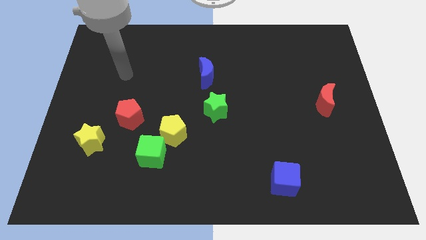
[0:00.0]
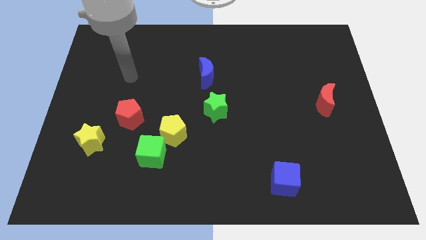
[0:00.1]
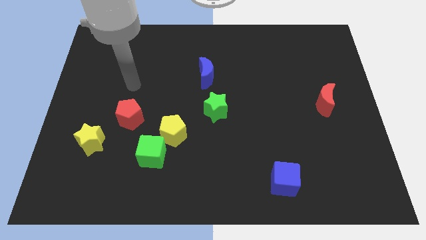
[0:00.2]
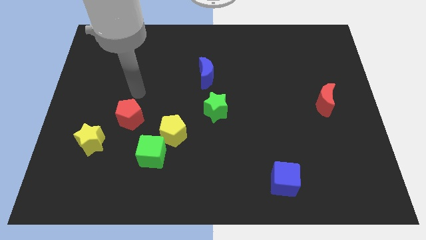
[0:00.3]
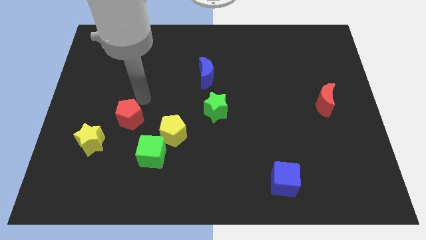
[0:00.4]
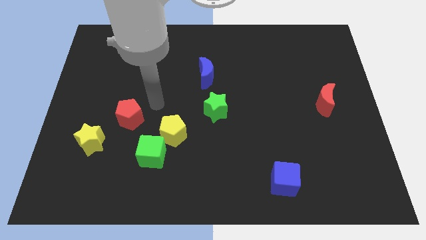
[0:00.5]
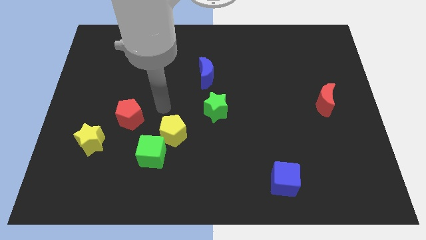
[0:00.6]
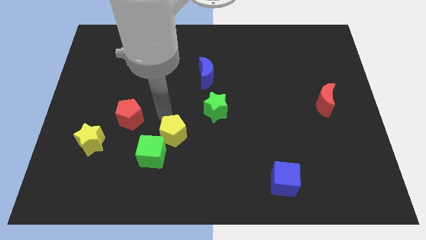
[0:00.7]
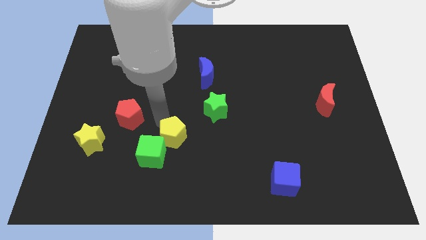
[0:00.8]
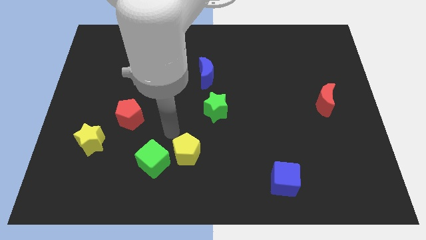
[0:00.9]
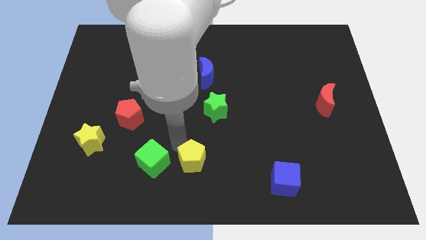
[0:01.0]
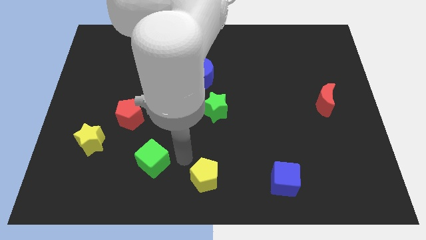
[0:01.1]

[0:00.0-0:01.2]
pull the green cube apart from the yellow pentagon

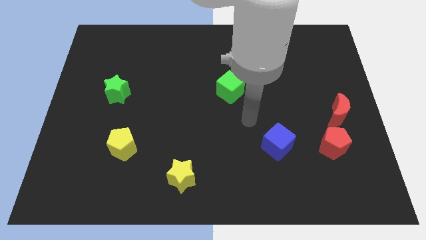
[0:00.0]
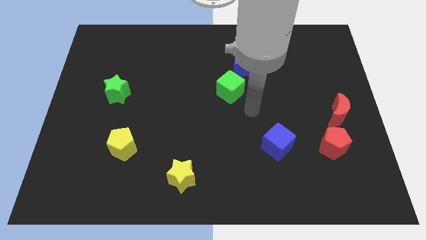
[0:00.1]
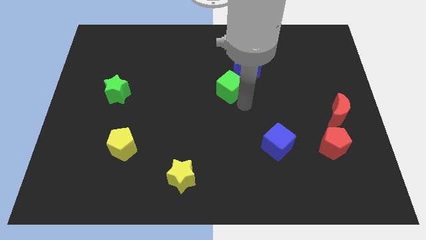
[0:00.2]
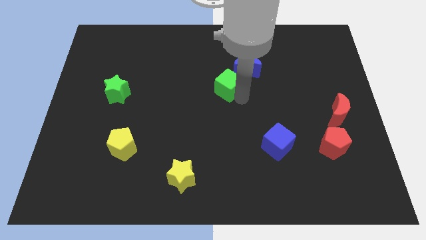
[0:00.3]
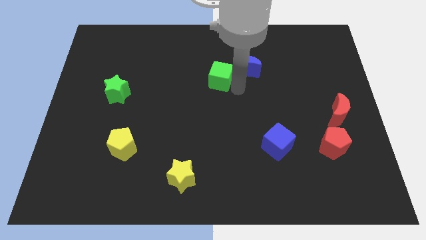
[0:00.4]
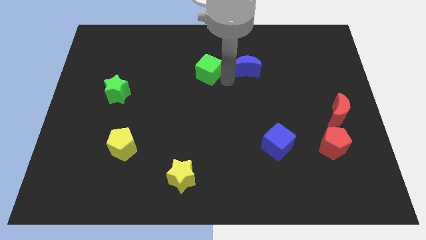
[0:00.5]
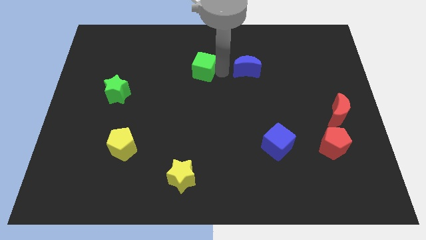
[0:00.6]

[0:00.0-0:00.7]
move the blue moon away from the green cube

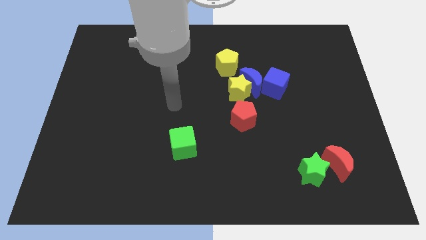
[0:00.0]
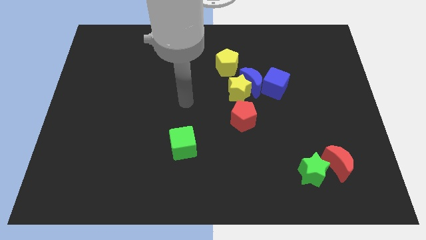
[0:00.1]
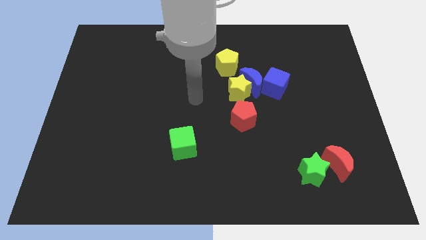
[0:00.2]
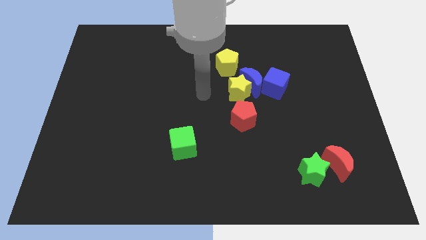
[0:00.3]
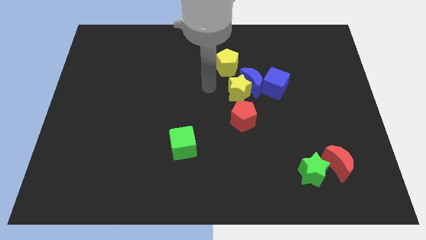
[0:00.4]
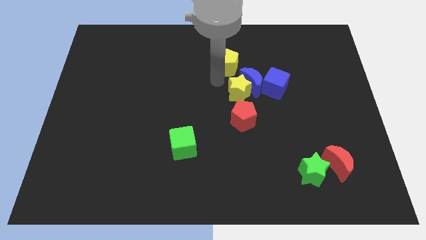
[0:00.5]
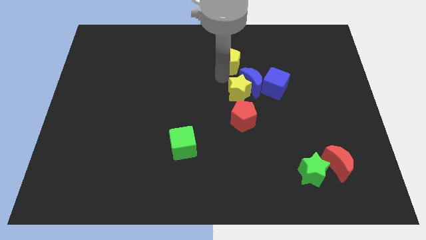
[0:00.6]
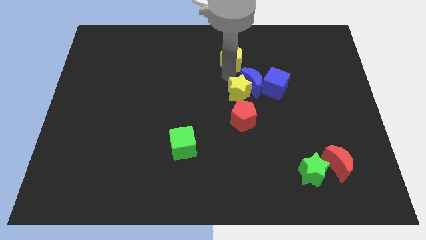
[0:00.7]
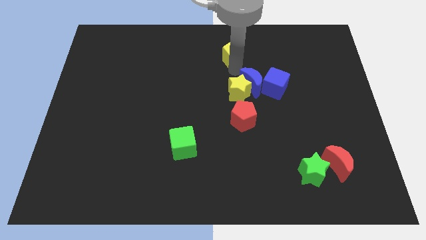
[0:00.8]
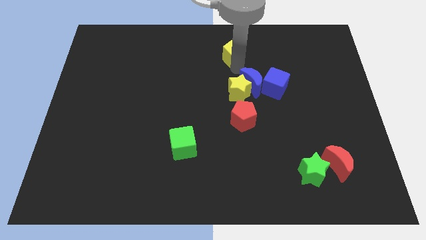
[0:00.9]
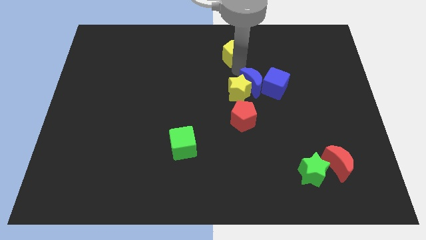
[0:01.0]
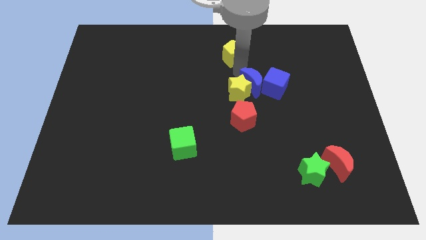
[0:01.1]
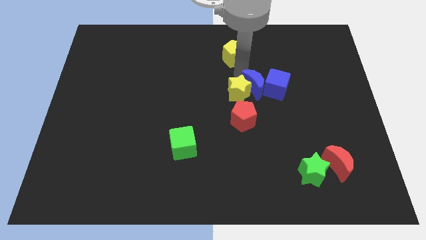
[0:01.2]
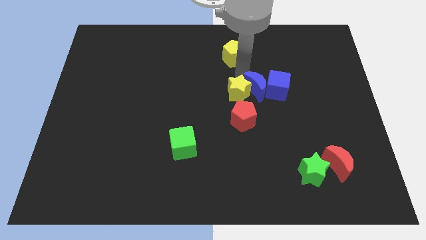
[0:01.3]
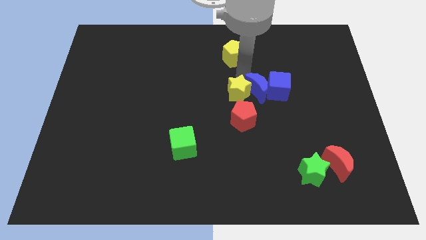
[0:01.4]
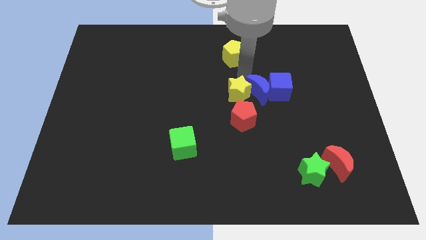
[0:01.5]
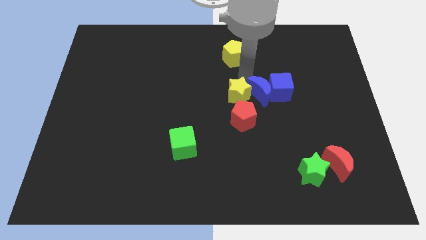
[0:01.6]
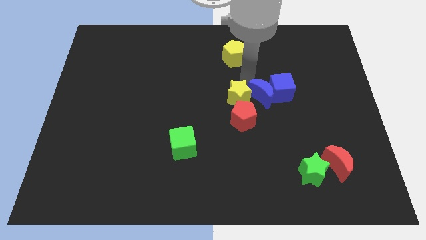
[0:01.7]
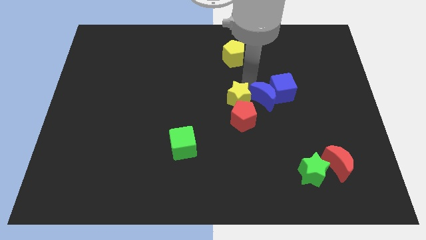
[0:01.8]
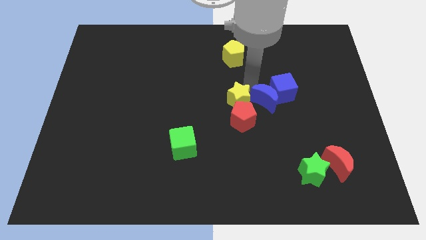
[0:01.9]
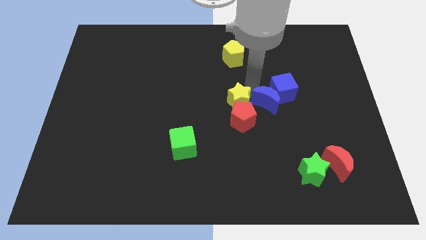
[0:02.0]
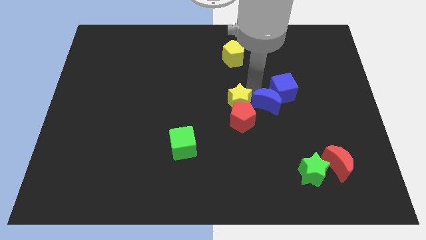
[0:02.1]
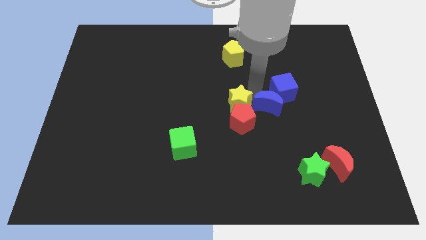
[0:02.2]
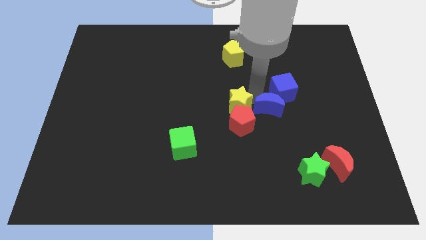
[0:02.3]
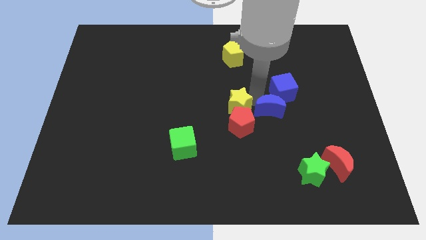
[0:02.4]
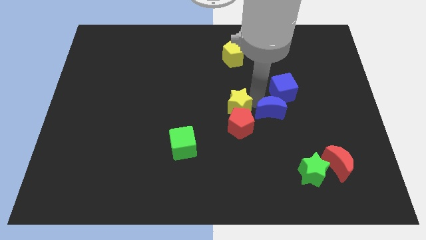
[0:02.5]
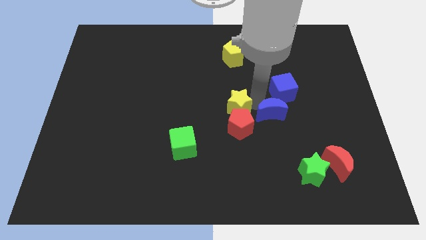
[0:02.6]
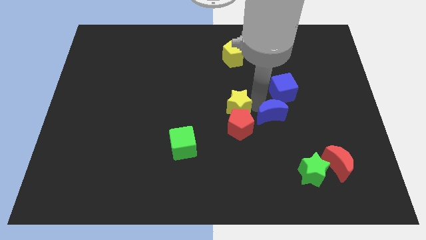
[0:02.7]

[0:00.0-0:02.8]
move the blue moon away from the group of blocks

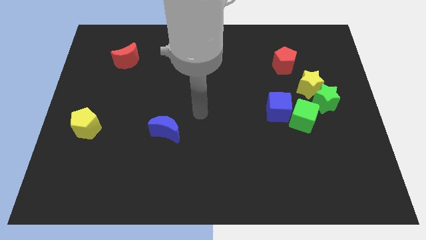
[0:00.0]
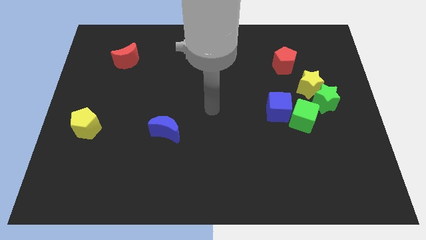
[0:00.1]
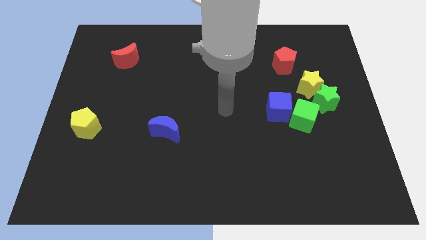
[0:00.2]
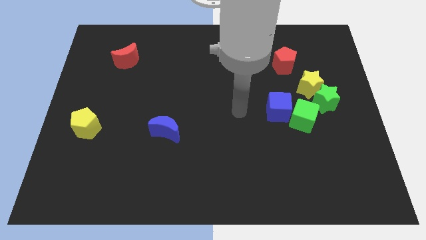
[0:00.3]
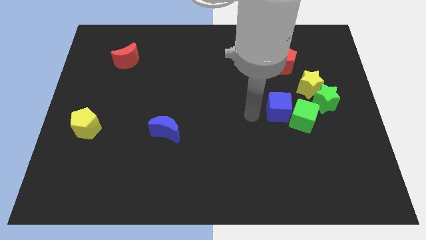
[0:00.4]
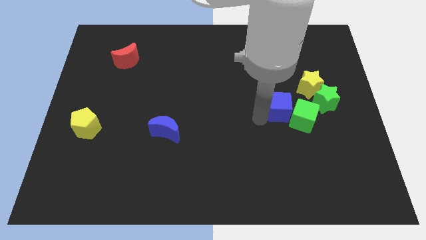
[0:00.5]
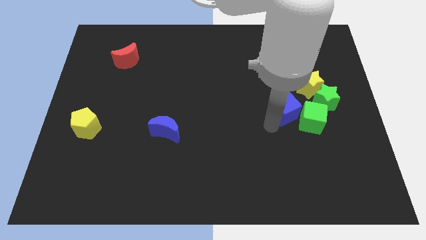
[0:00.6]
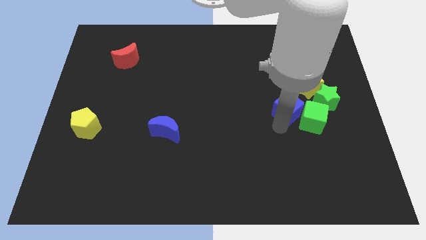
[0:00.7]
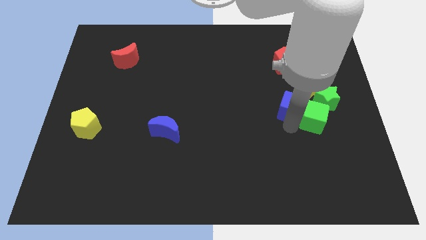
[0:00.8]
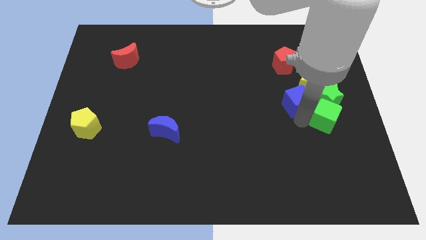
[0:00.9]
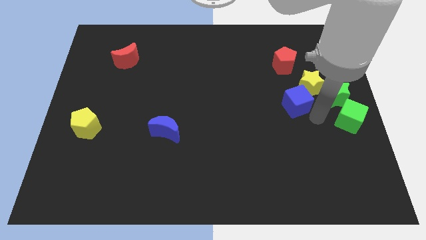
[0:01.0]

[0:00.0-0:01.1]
pull the blue cube apart from the green cube

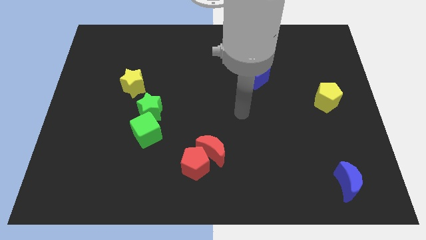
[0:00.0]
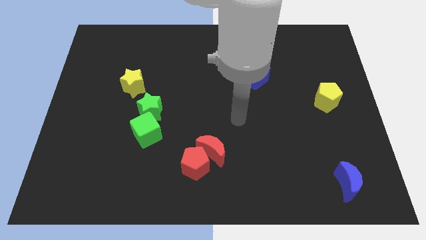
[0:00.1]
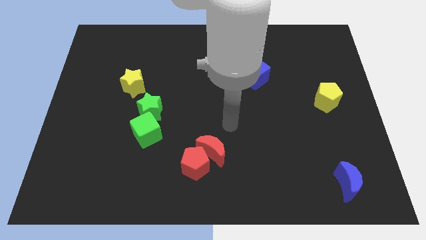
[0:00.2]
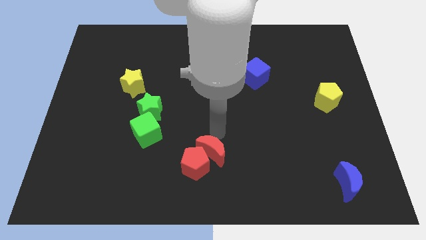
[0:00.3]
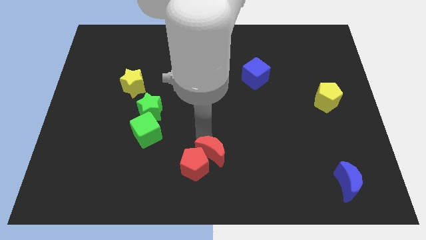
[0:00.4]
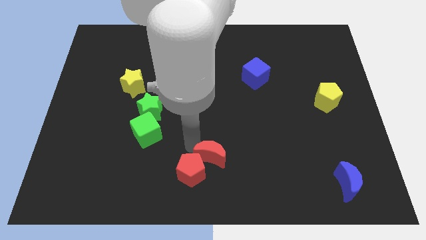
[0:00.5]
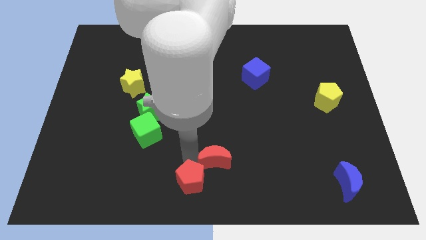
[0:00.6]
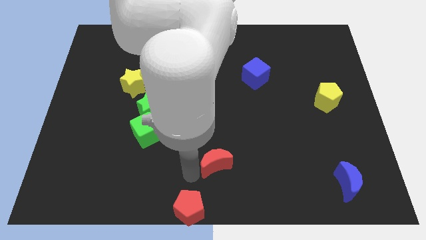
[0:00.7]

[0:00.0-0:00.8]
move the red moon away from the red pentagon

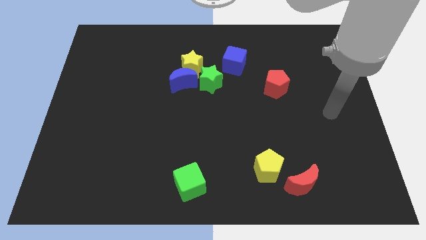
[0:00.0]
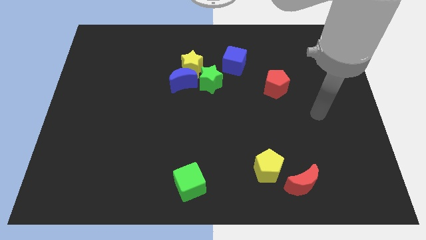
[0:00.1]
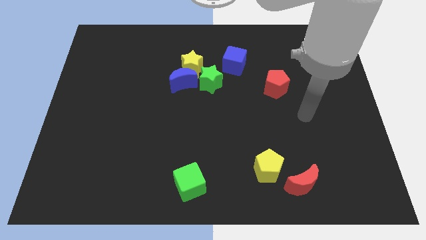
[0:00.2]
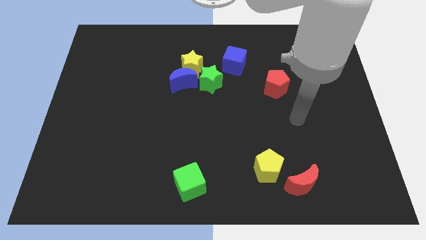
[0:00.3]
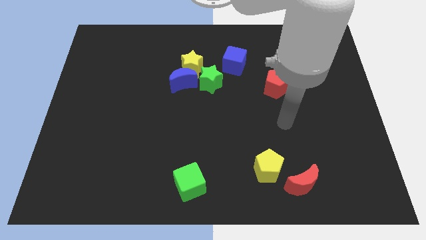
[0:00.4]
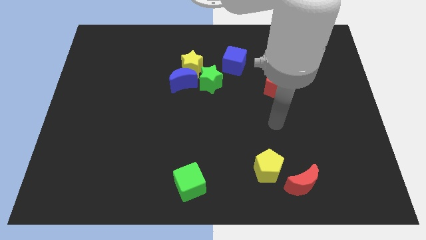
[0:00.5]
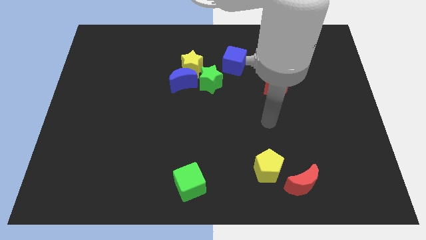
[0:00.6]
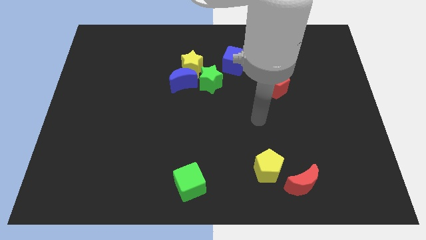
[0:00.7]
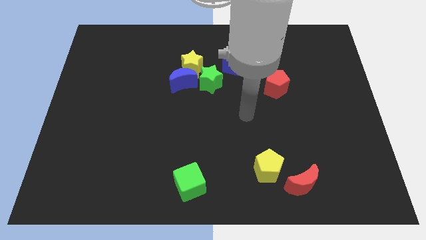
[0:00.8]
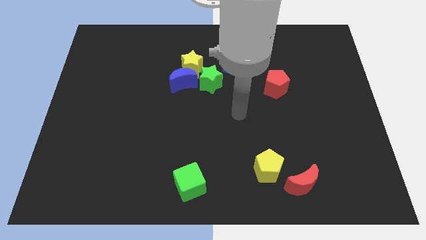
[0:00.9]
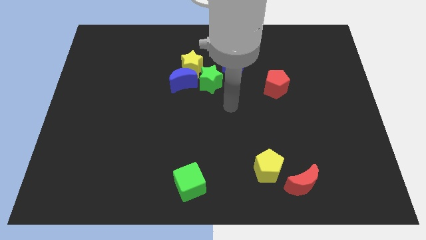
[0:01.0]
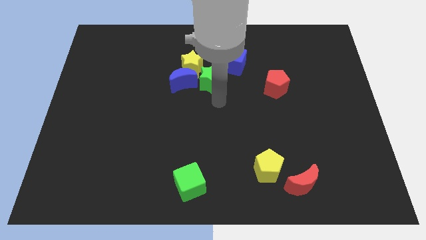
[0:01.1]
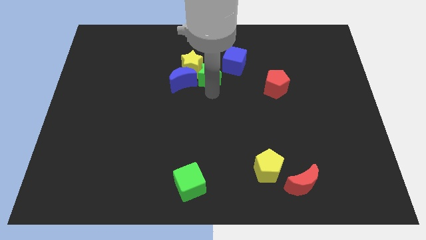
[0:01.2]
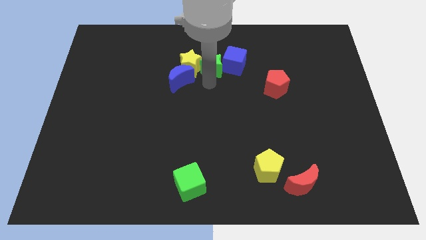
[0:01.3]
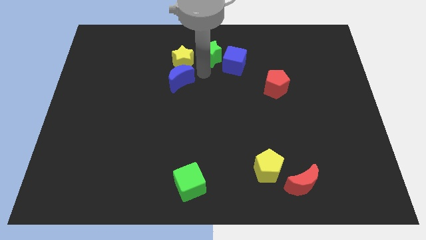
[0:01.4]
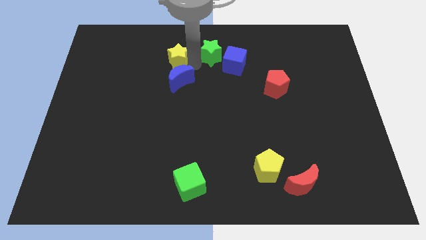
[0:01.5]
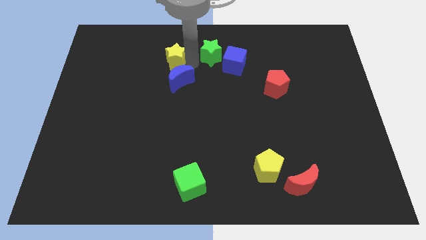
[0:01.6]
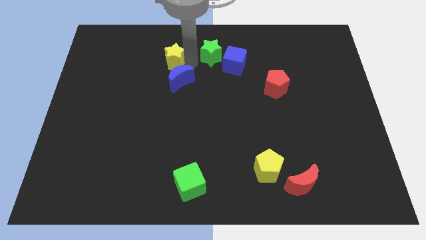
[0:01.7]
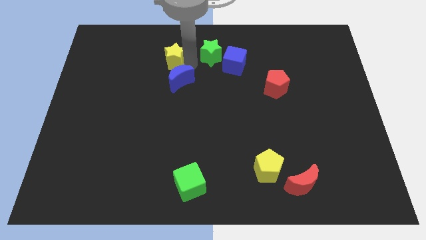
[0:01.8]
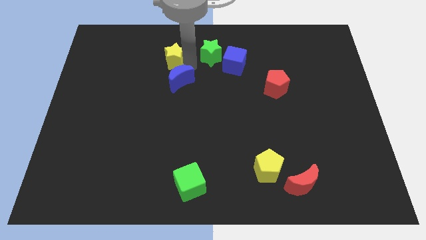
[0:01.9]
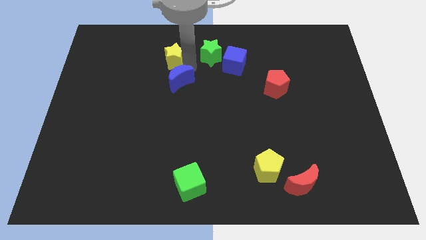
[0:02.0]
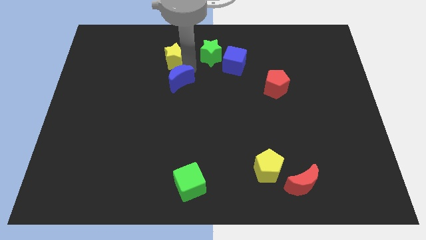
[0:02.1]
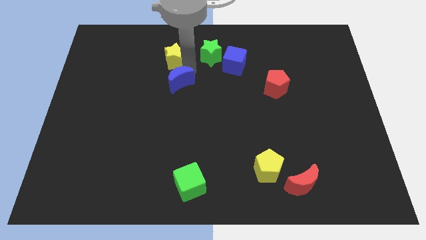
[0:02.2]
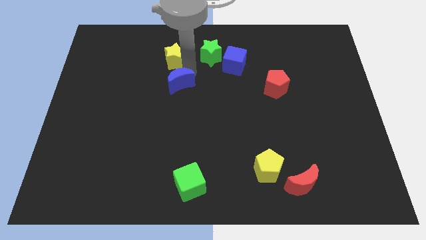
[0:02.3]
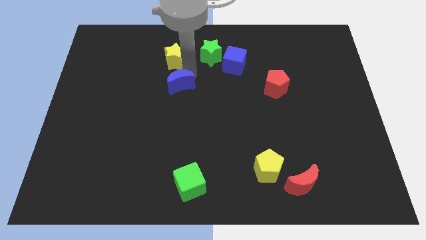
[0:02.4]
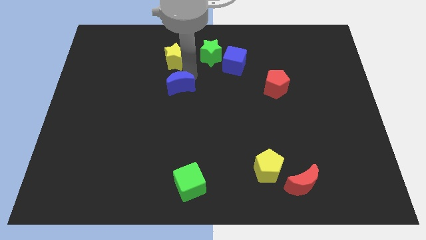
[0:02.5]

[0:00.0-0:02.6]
move the blue moon away from the yellow star and green star
